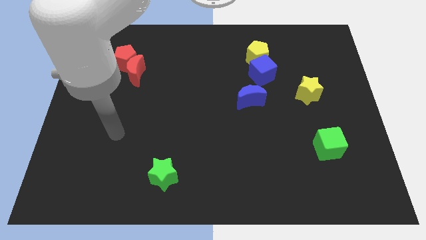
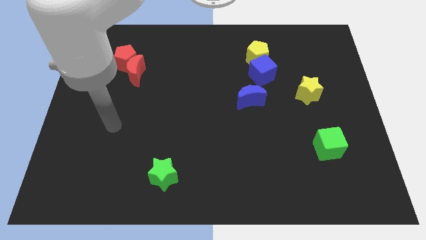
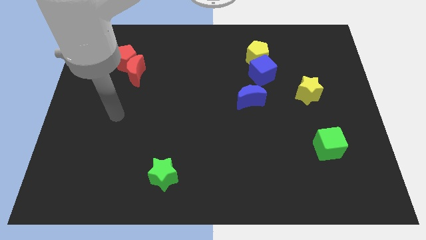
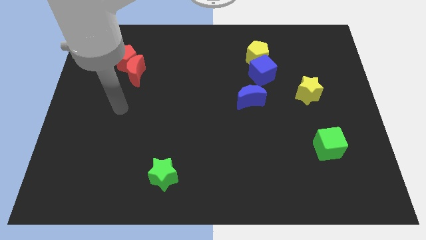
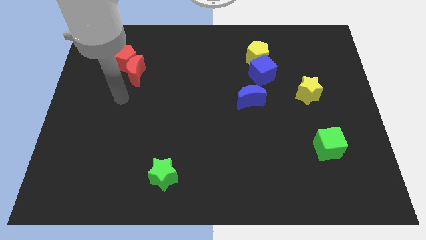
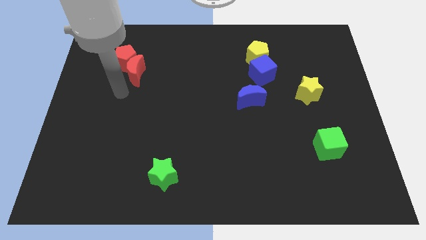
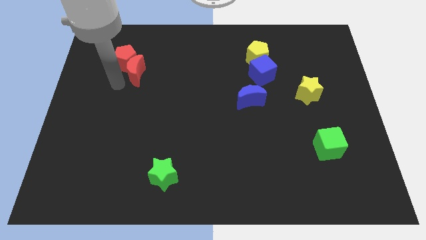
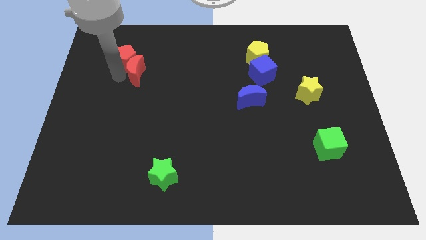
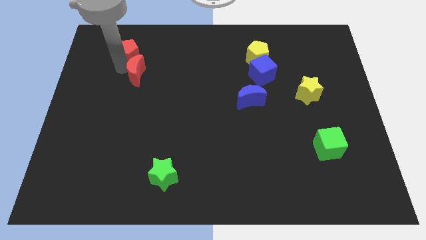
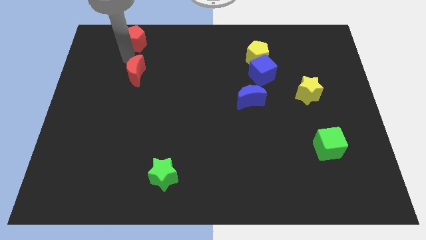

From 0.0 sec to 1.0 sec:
pull the red moon apart from the red pentagon

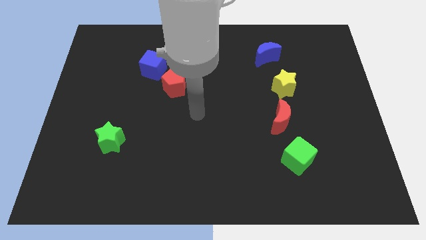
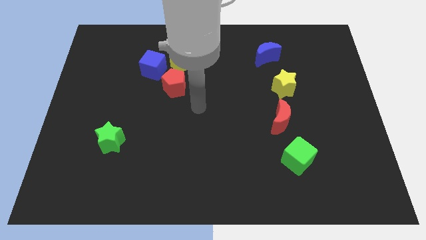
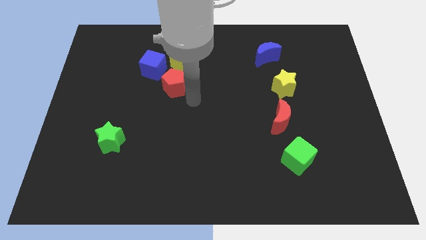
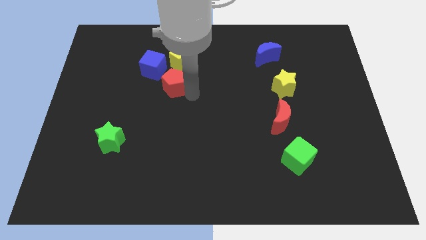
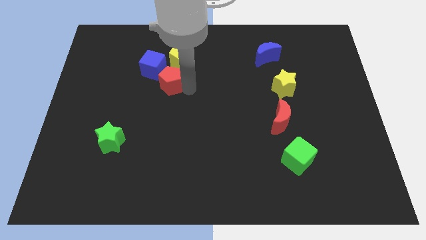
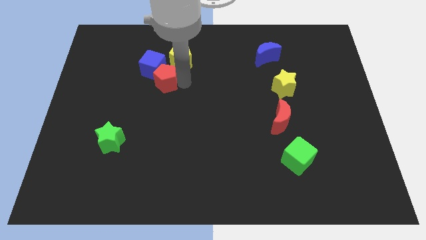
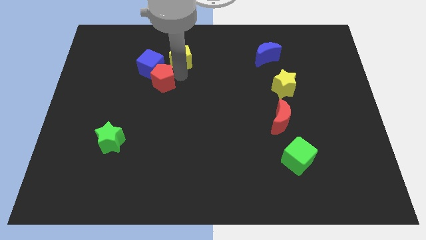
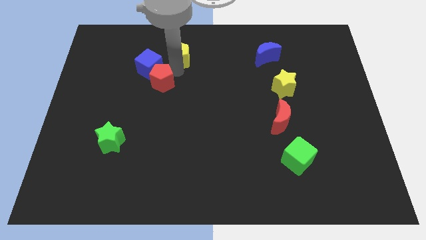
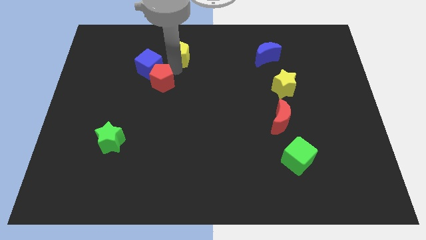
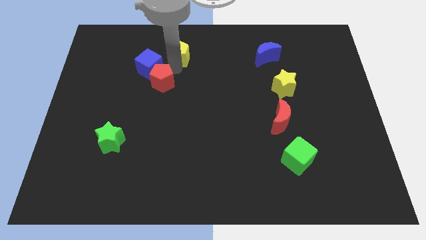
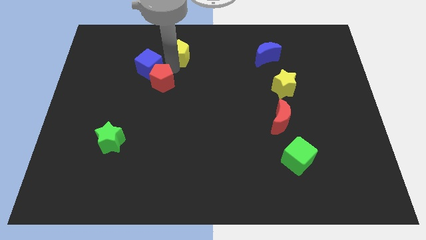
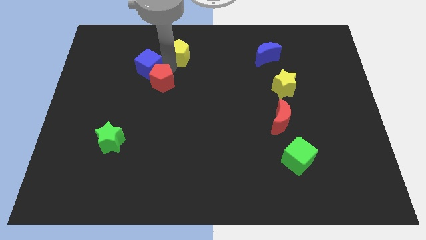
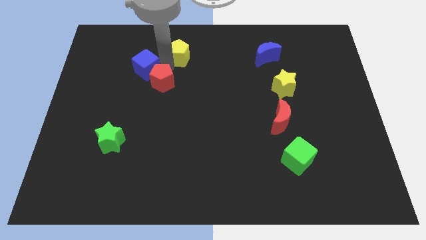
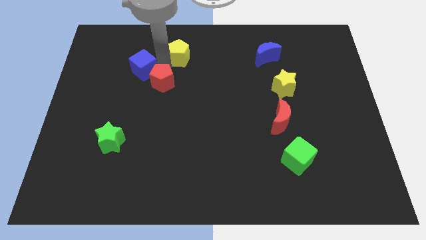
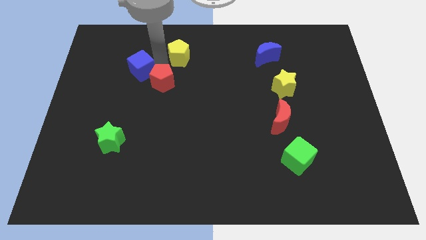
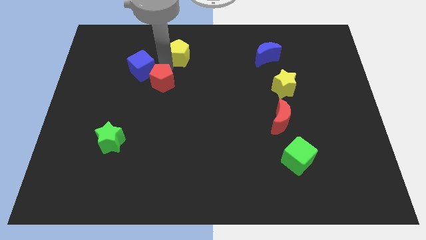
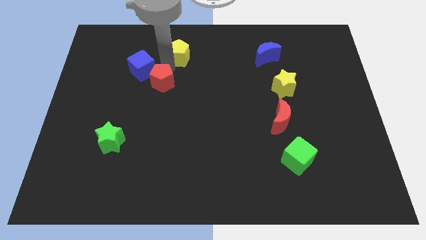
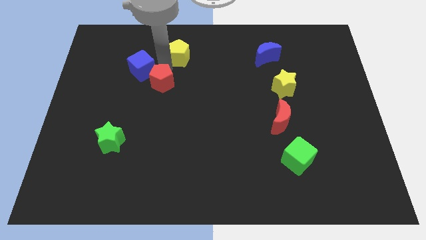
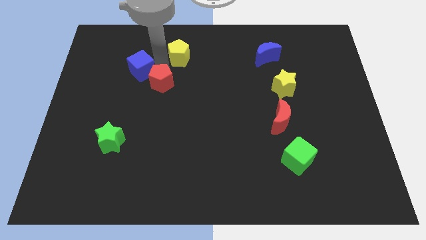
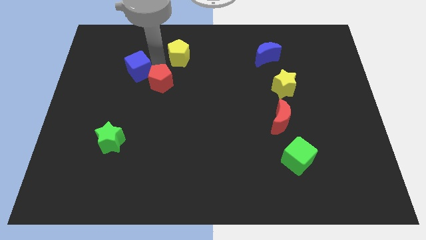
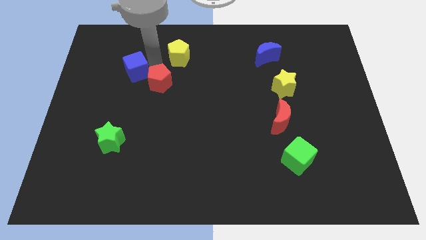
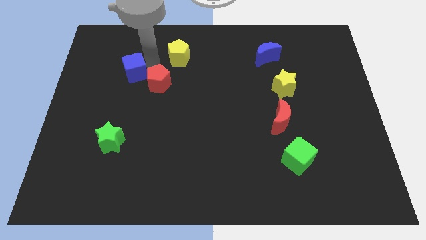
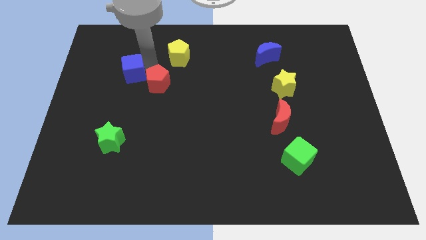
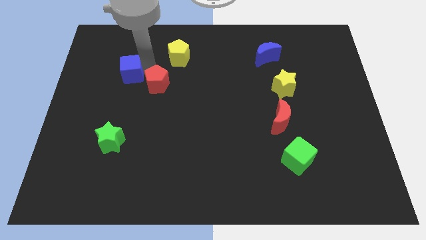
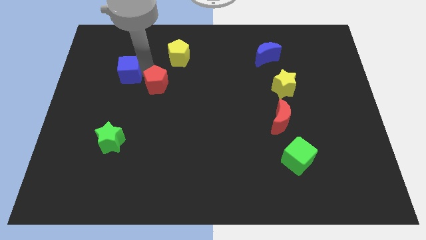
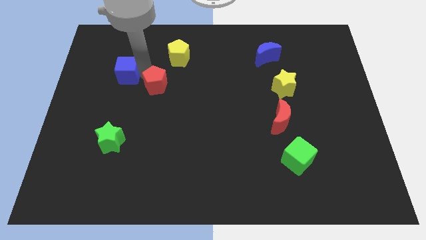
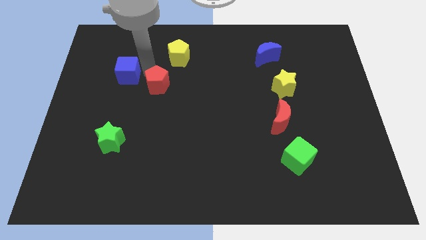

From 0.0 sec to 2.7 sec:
move the blue cube away from the yellow pentagon and red pentagon

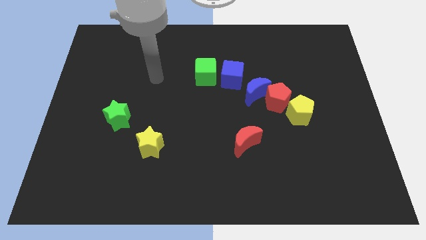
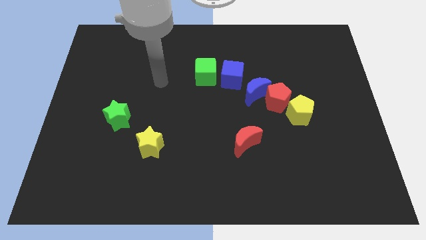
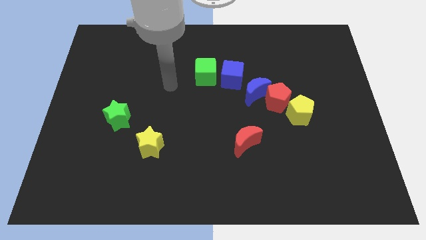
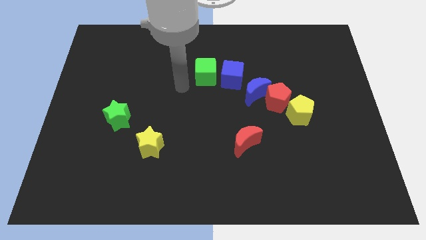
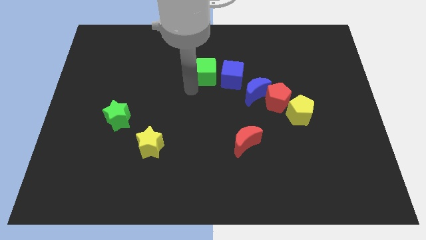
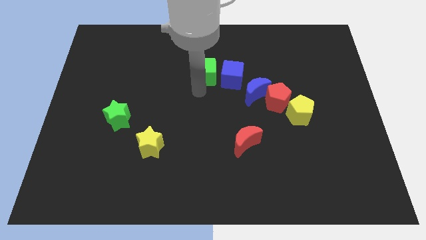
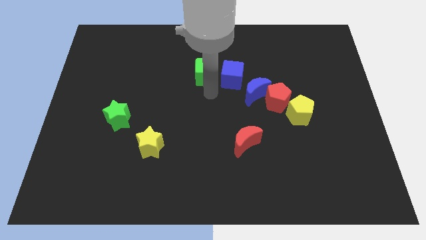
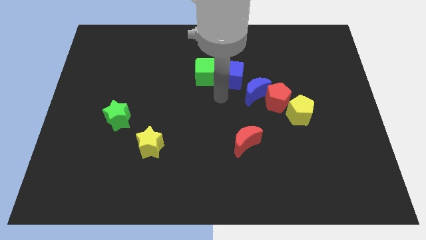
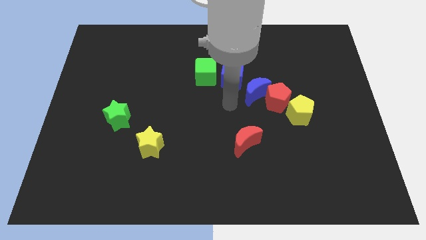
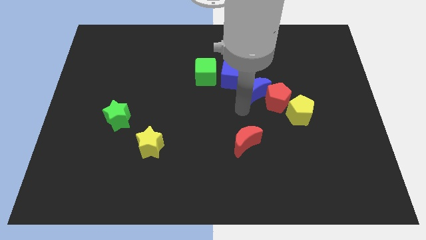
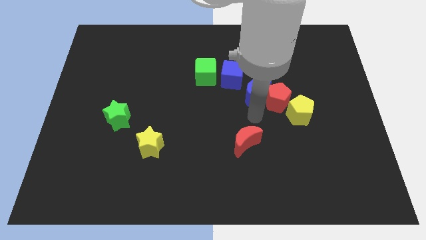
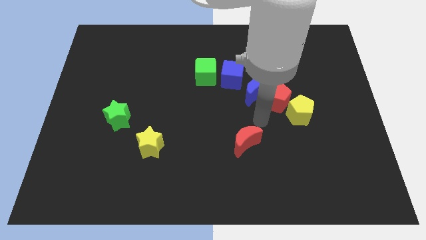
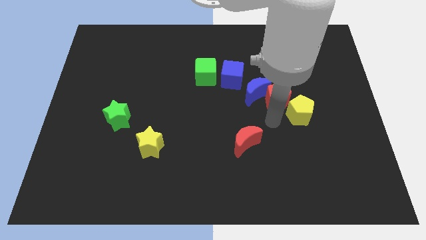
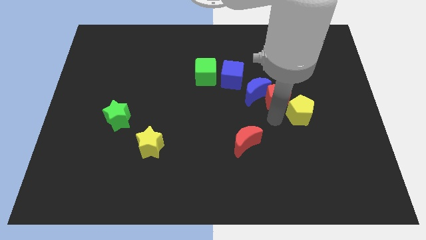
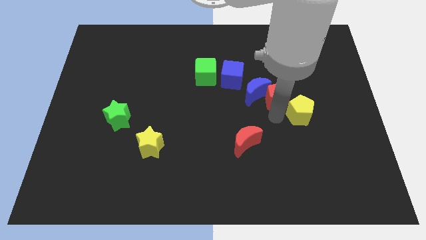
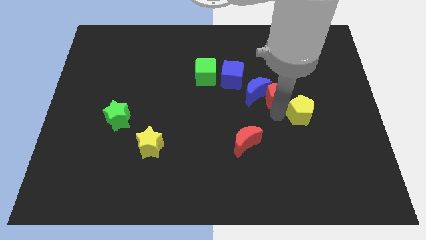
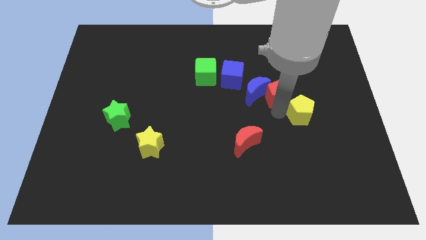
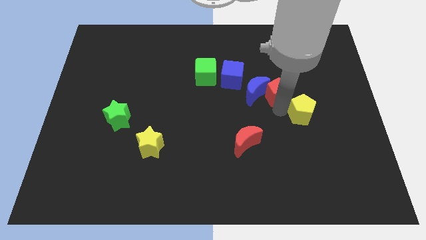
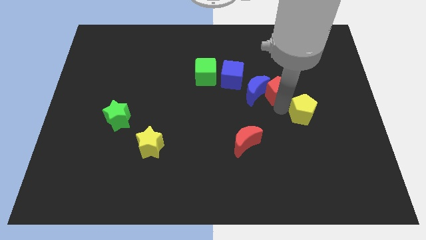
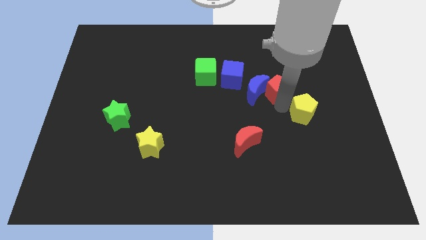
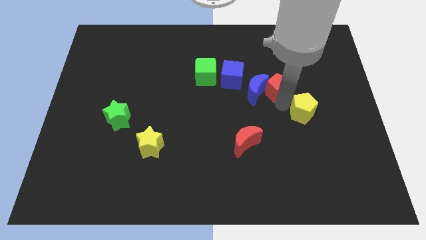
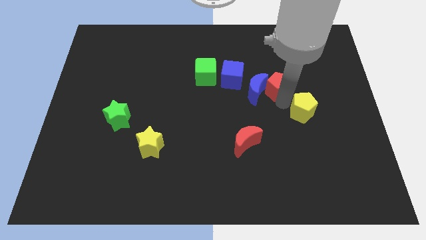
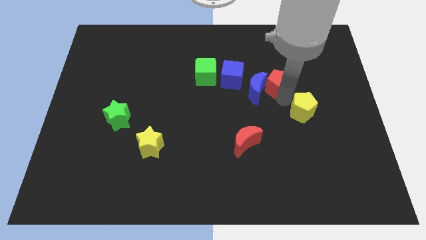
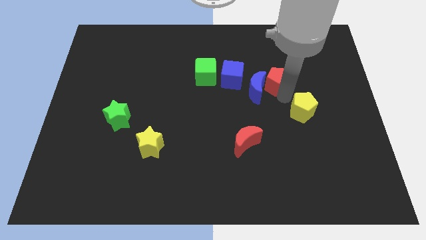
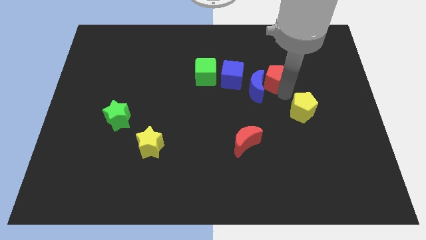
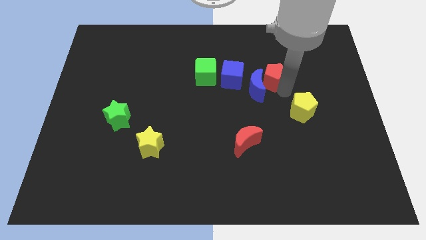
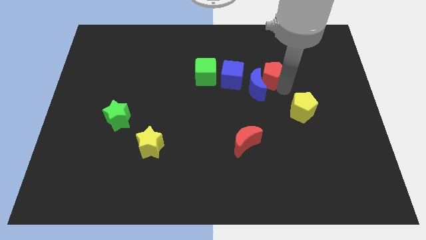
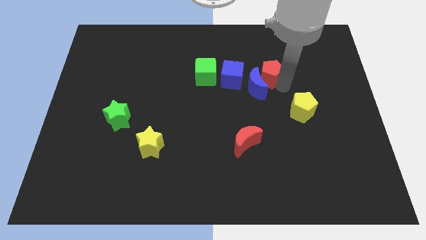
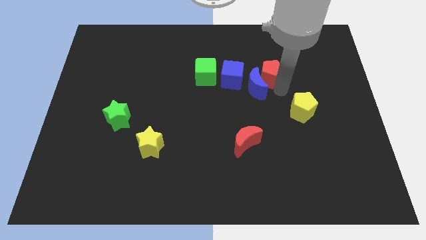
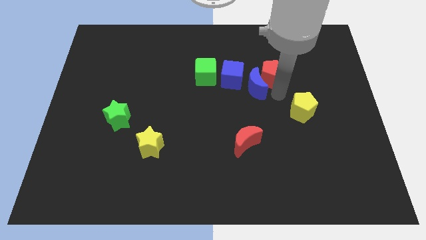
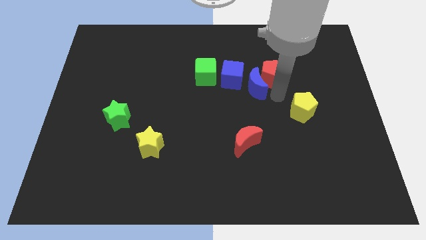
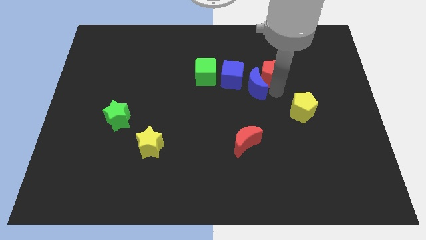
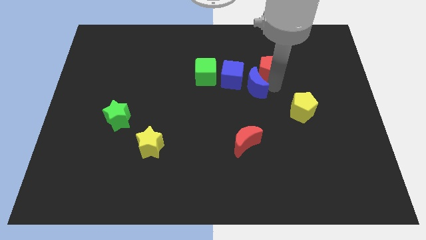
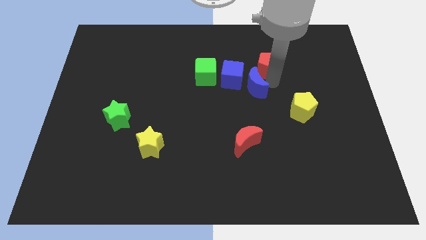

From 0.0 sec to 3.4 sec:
move the red pentagon away from the blue moon and yellow pentagon

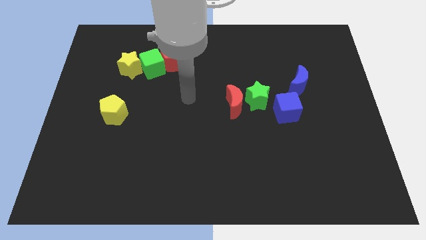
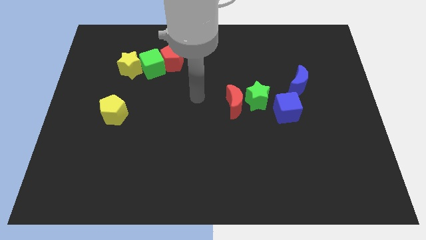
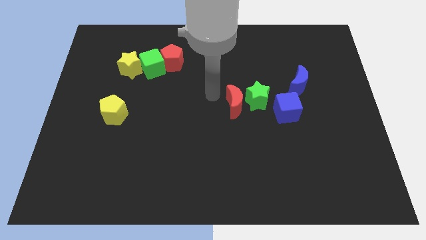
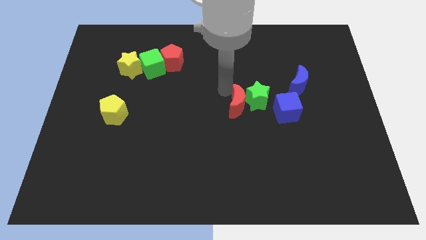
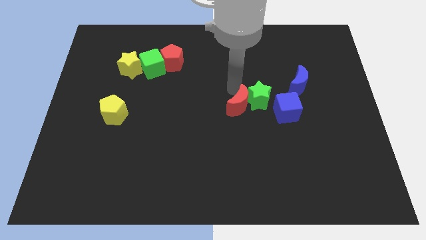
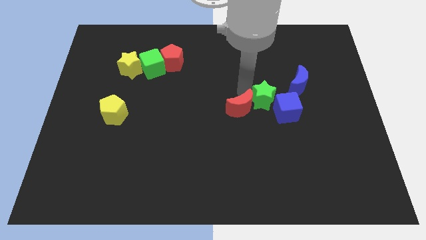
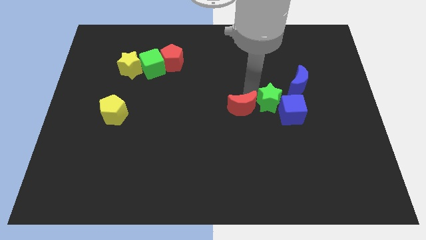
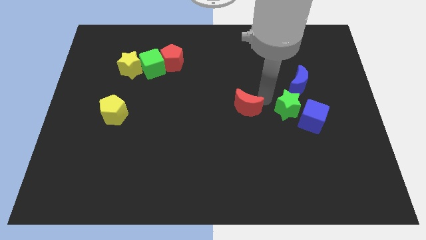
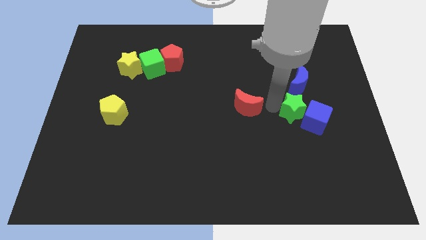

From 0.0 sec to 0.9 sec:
move the red moon away from the green star

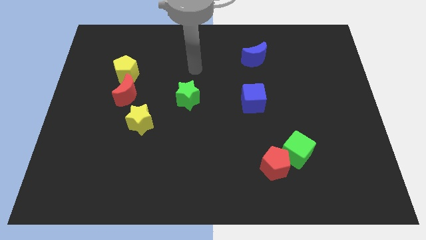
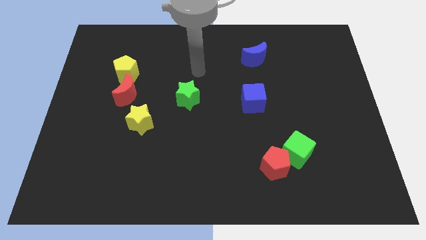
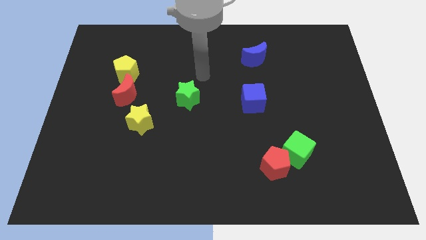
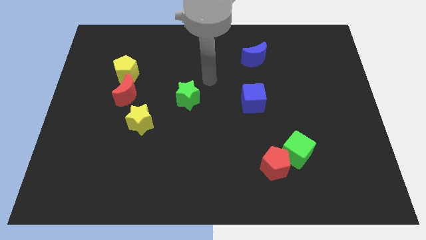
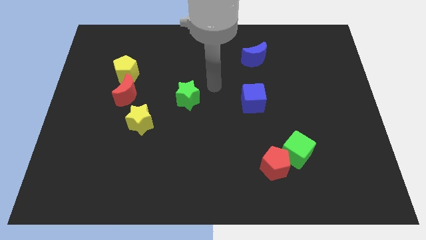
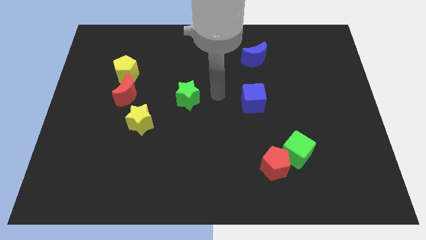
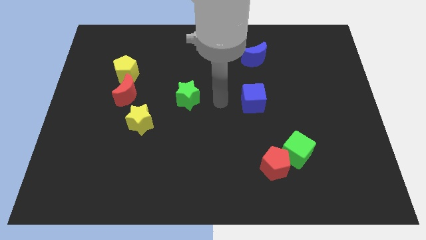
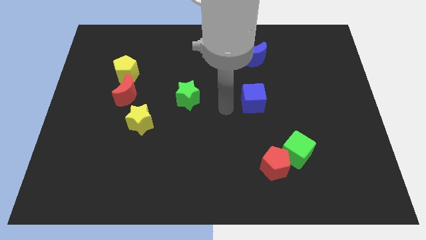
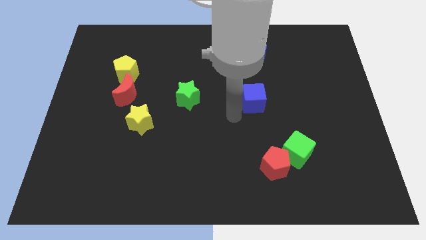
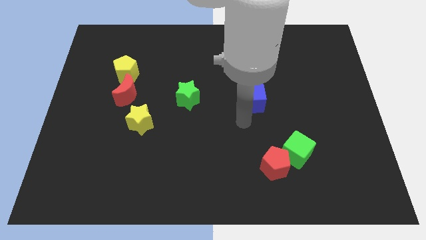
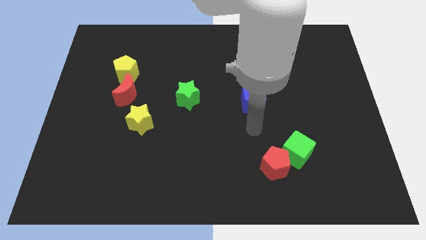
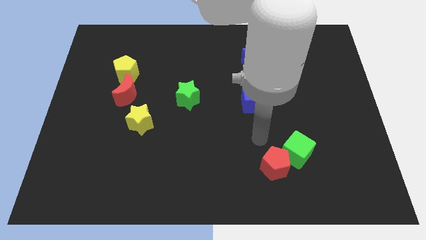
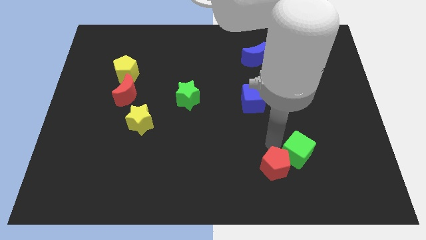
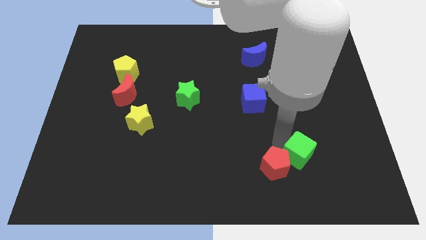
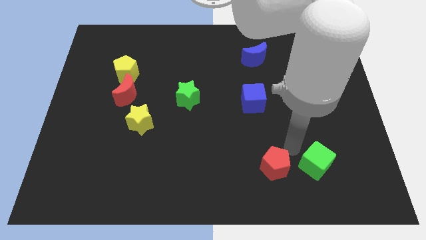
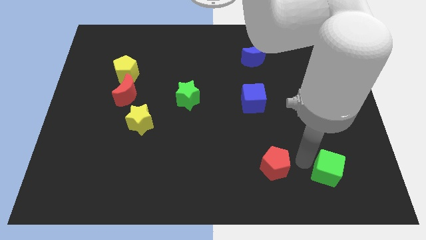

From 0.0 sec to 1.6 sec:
pull the red pentagon apart from the green cube
